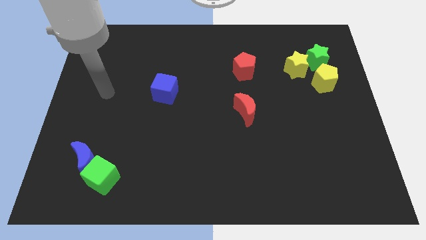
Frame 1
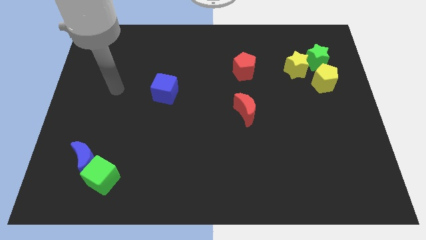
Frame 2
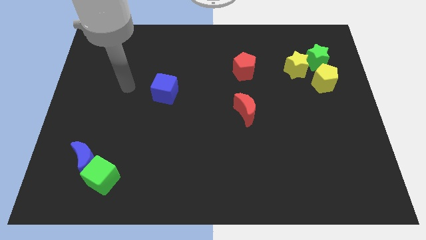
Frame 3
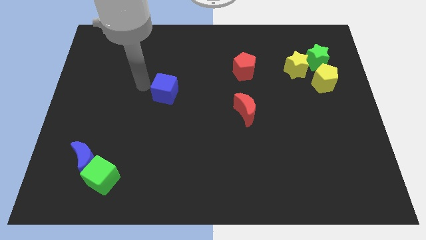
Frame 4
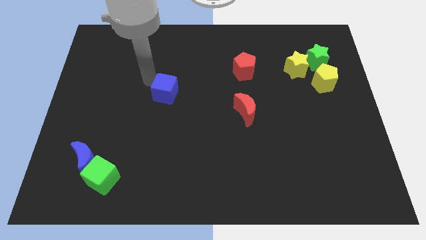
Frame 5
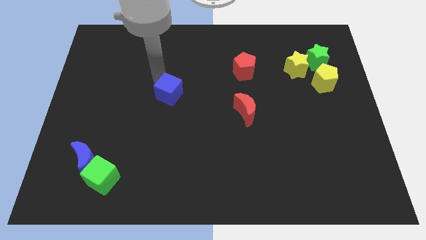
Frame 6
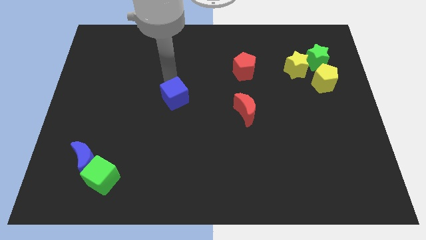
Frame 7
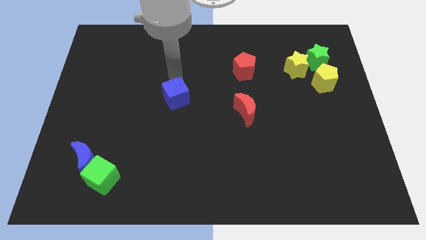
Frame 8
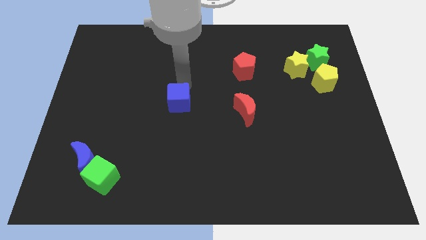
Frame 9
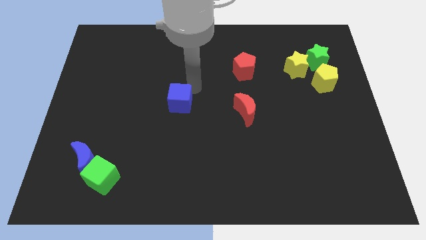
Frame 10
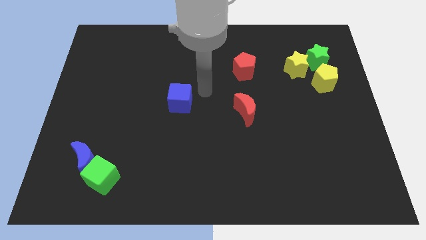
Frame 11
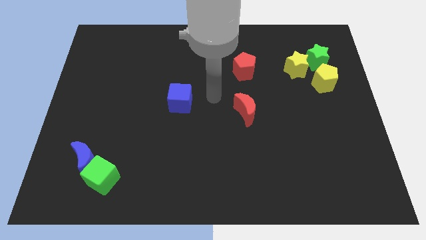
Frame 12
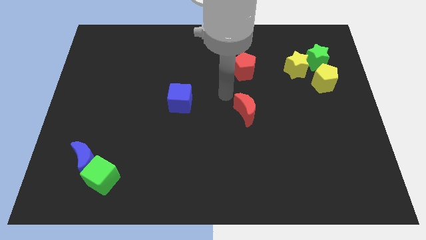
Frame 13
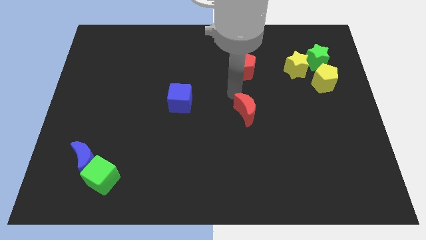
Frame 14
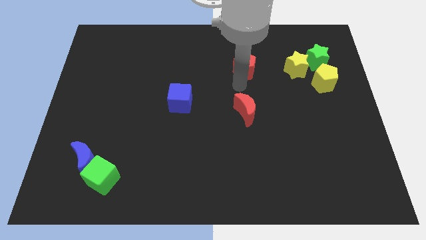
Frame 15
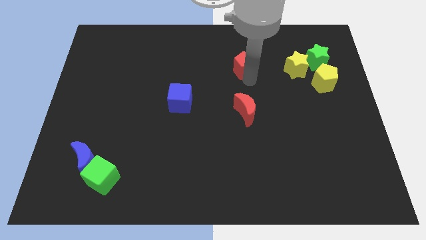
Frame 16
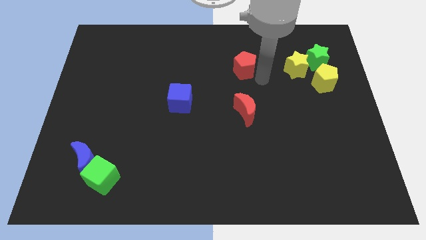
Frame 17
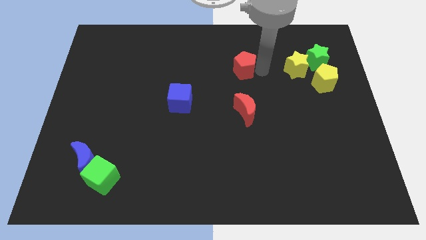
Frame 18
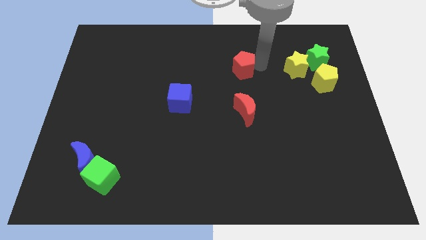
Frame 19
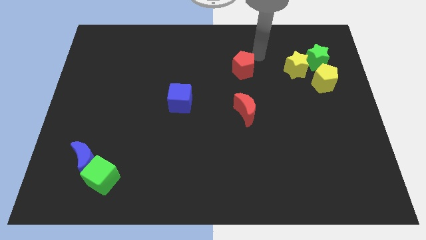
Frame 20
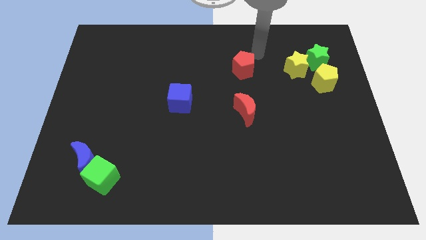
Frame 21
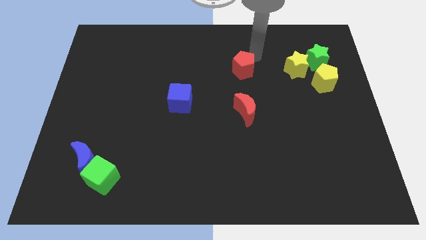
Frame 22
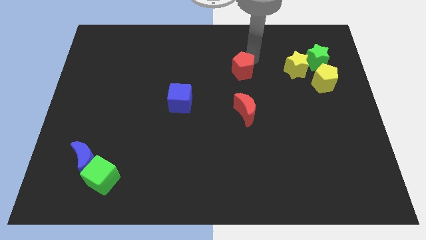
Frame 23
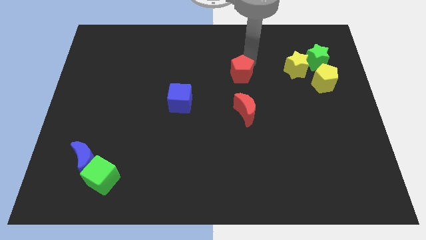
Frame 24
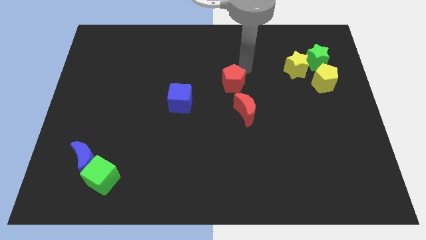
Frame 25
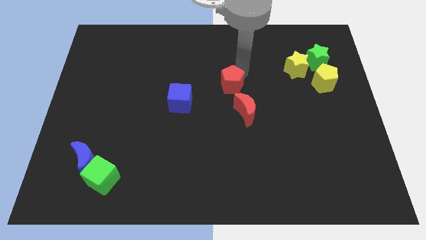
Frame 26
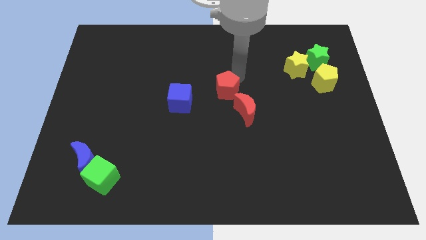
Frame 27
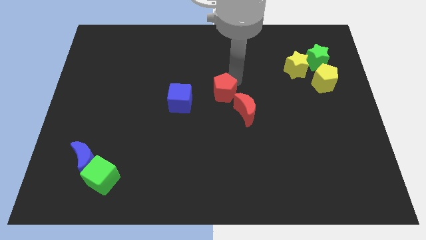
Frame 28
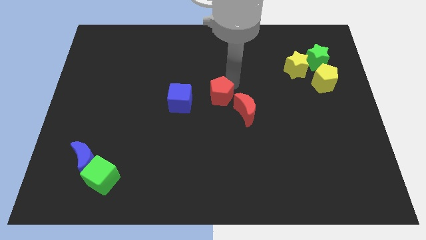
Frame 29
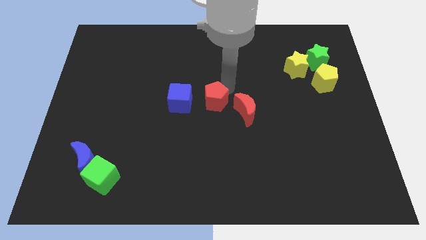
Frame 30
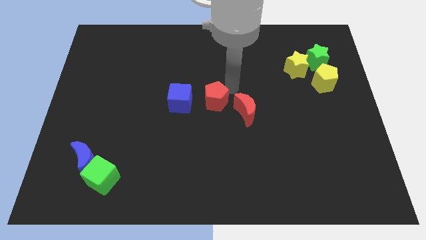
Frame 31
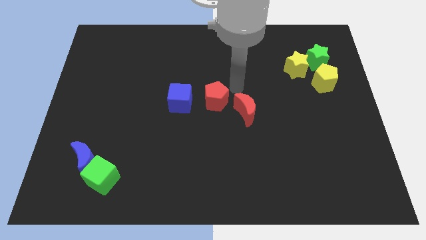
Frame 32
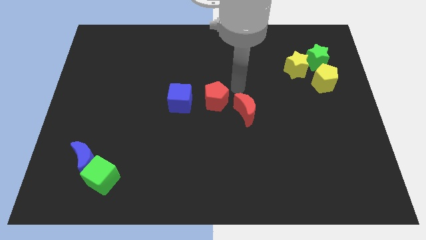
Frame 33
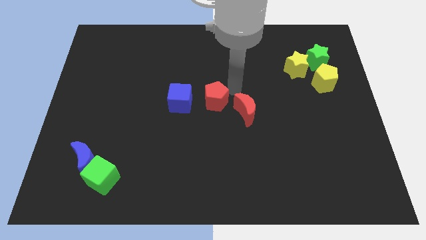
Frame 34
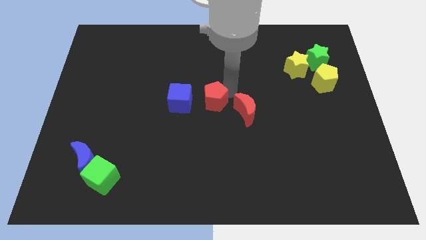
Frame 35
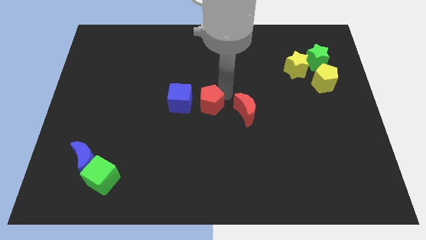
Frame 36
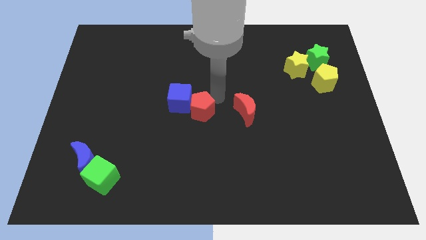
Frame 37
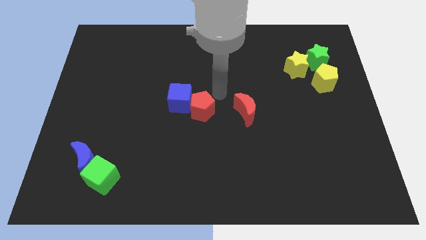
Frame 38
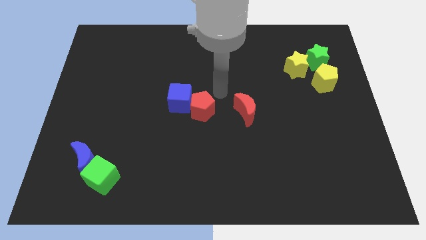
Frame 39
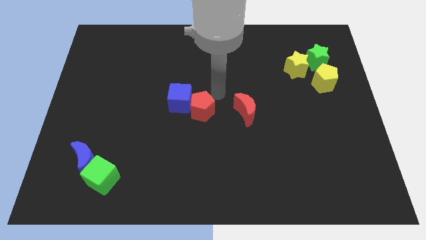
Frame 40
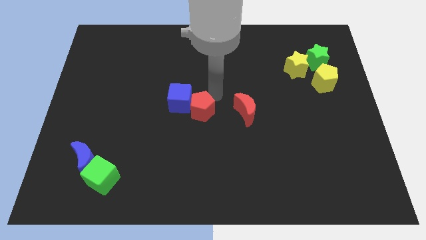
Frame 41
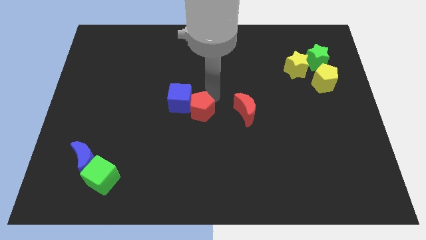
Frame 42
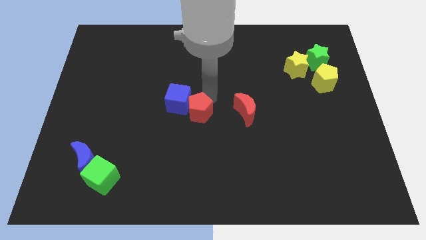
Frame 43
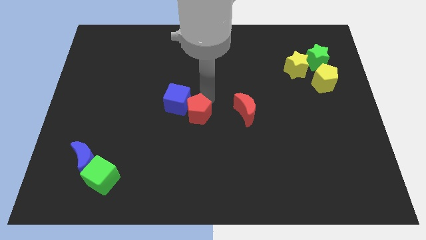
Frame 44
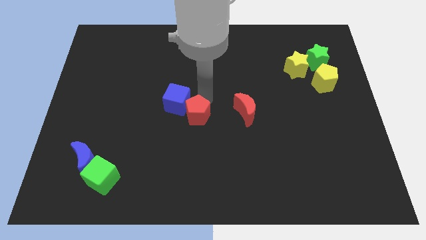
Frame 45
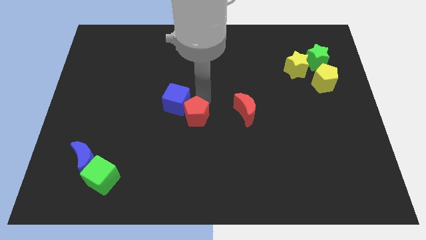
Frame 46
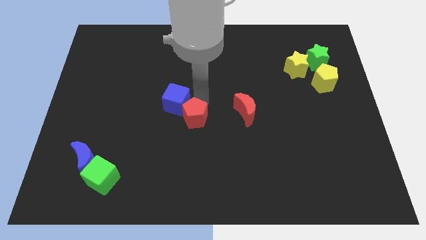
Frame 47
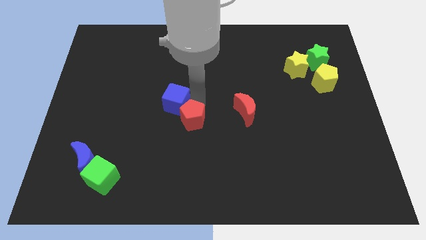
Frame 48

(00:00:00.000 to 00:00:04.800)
slide the red pentagon down and then to the left

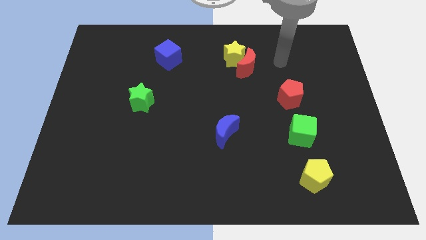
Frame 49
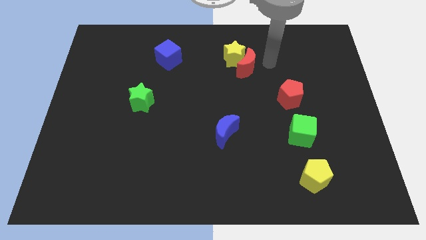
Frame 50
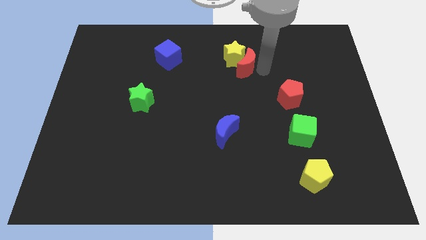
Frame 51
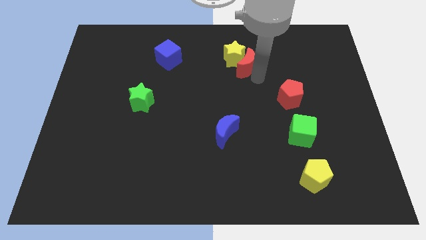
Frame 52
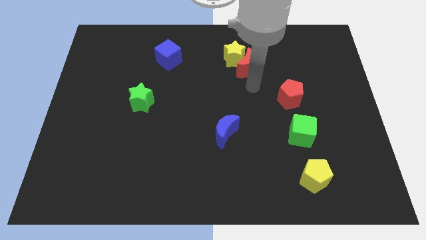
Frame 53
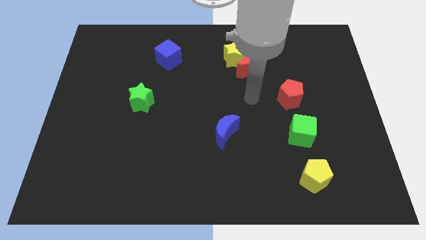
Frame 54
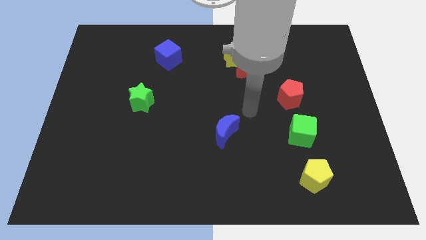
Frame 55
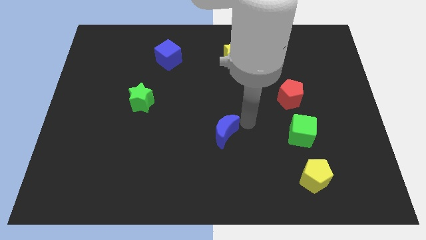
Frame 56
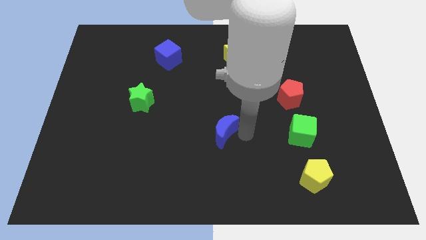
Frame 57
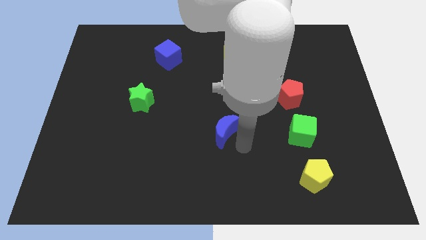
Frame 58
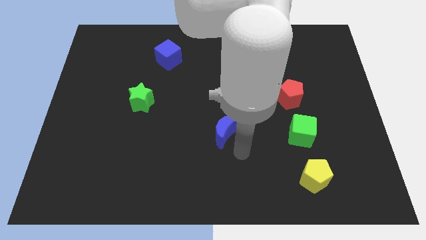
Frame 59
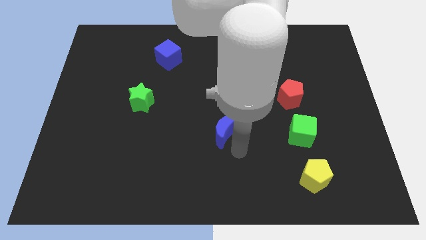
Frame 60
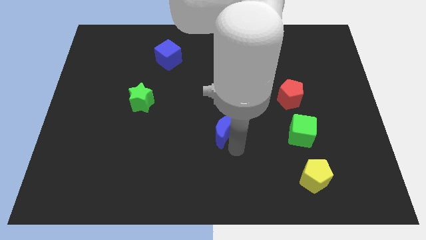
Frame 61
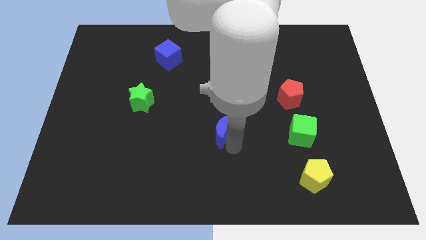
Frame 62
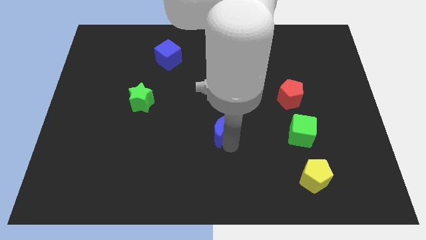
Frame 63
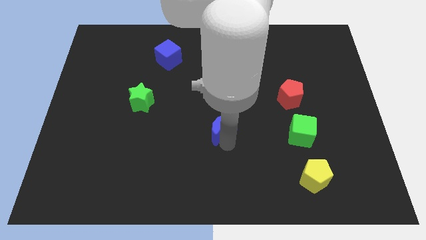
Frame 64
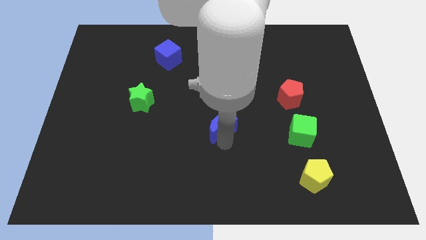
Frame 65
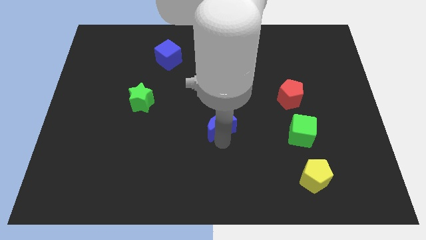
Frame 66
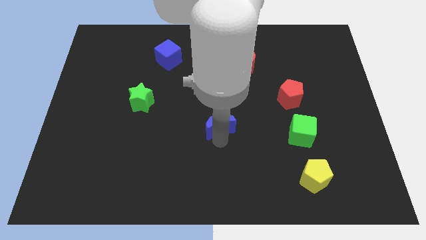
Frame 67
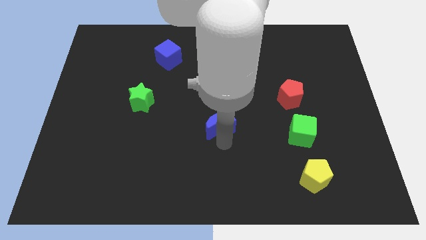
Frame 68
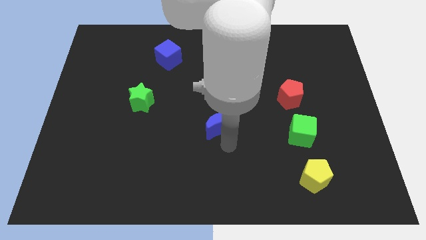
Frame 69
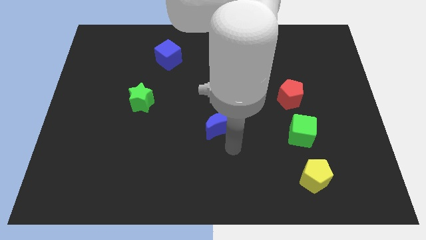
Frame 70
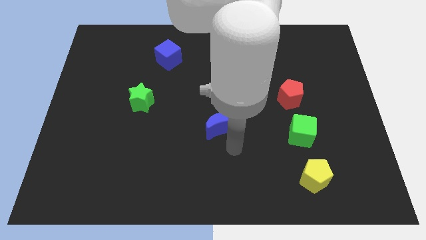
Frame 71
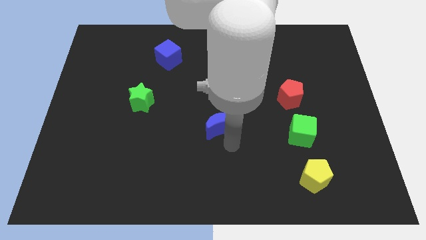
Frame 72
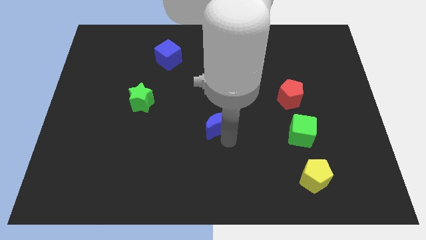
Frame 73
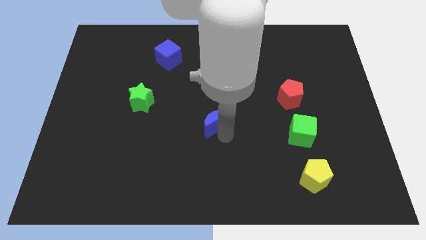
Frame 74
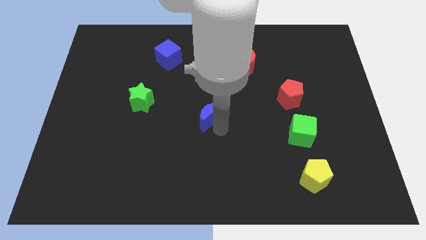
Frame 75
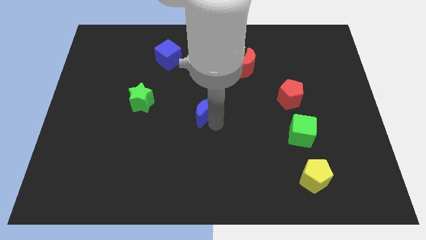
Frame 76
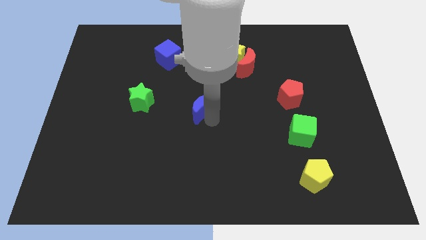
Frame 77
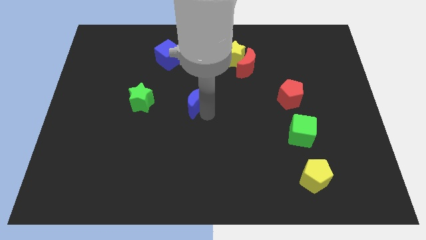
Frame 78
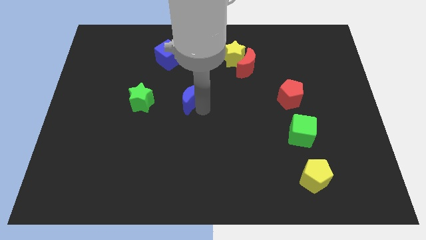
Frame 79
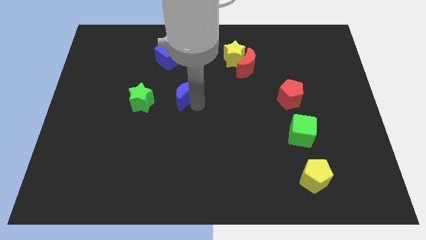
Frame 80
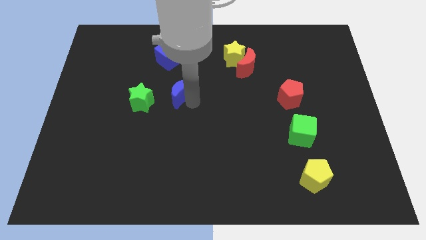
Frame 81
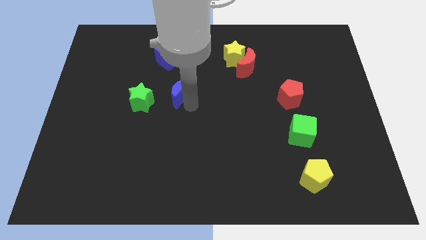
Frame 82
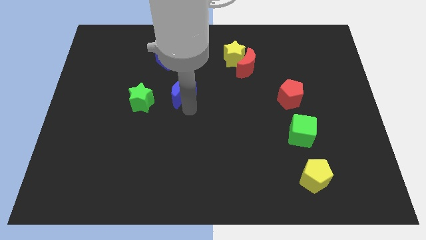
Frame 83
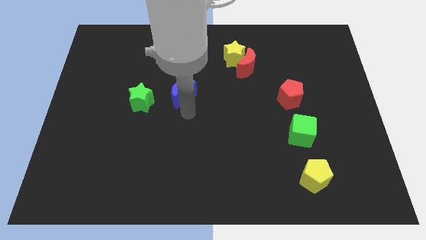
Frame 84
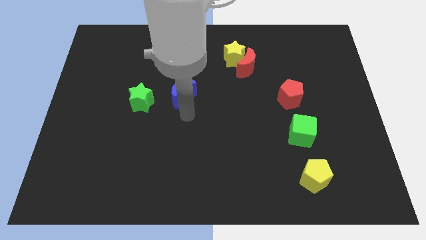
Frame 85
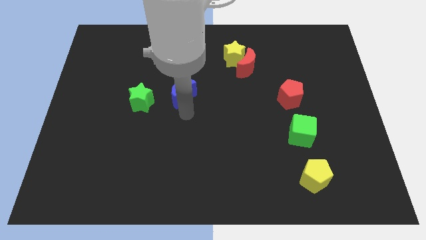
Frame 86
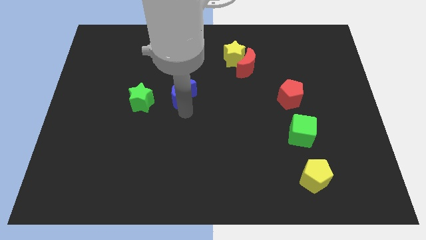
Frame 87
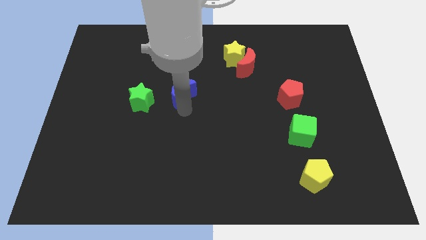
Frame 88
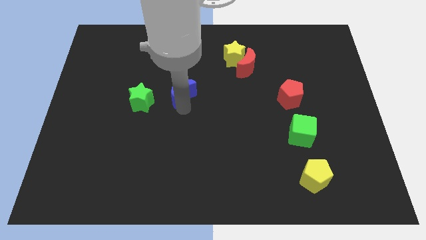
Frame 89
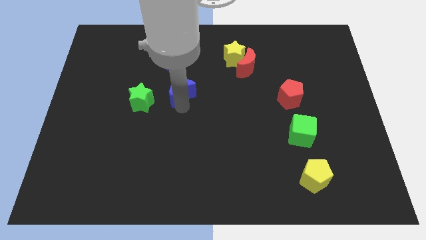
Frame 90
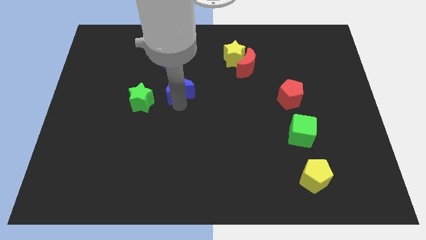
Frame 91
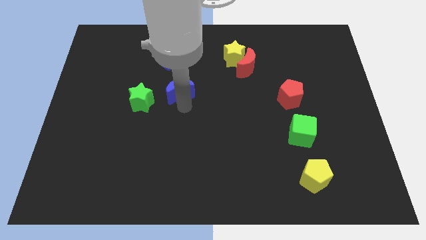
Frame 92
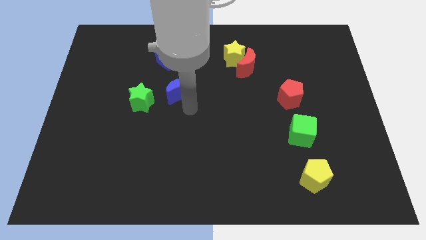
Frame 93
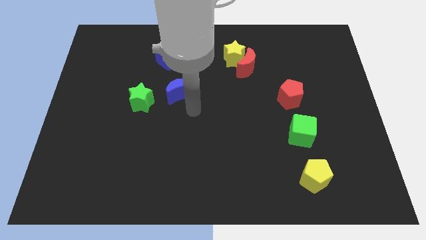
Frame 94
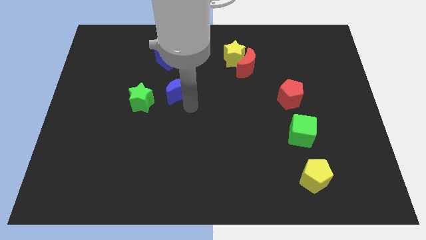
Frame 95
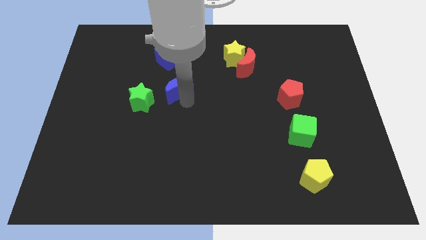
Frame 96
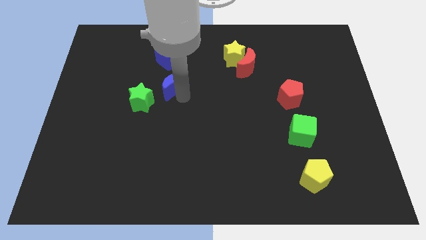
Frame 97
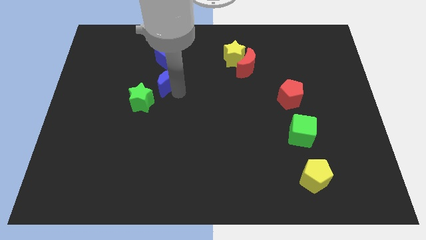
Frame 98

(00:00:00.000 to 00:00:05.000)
slide the blue moon upwards and to the left diagonally
